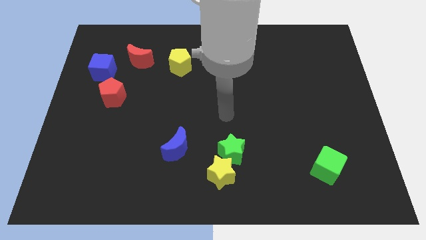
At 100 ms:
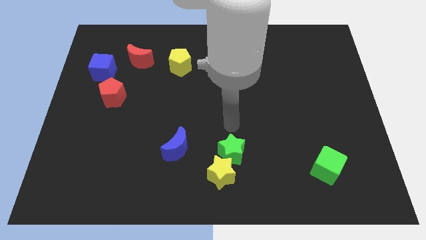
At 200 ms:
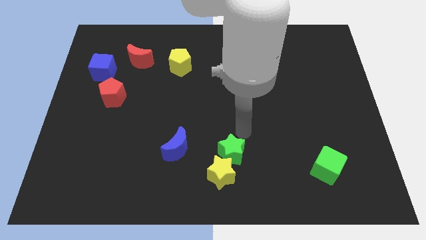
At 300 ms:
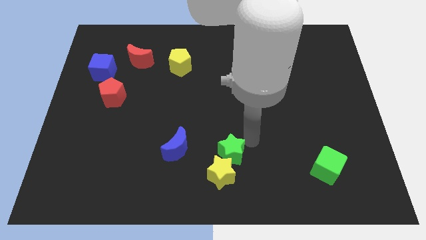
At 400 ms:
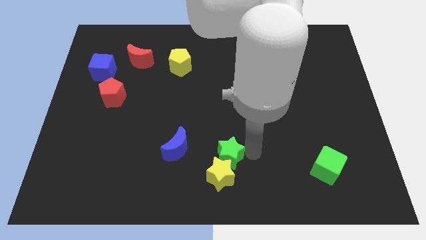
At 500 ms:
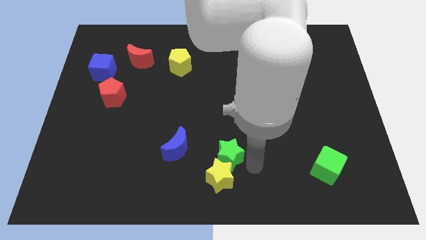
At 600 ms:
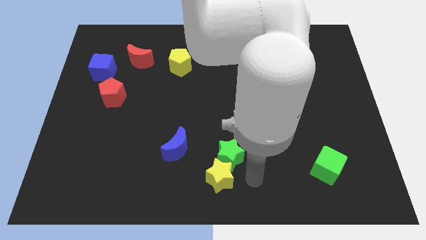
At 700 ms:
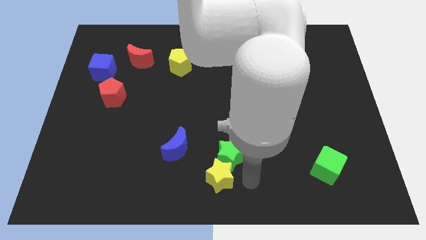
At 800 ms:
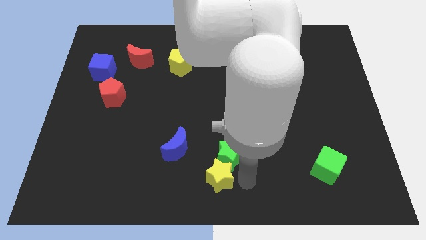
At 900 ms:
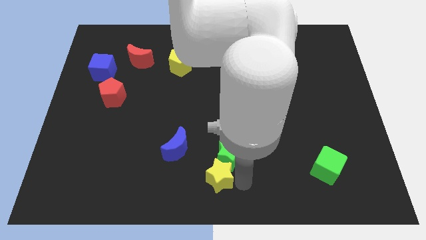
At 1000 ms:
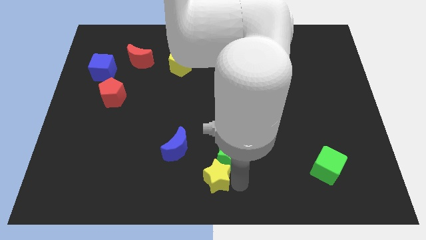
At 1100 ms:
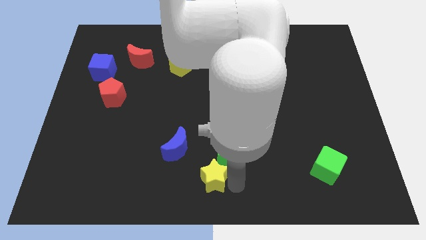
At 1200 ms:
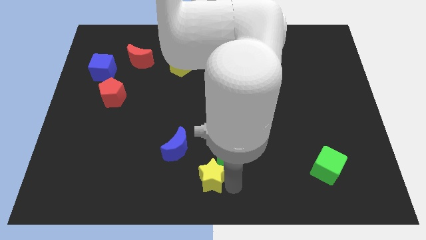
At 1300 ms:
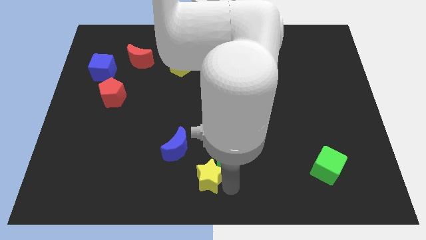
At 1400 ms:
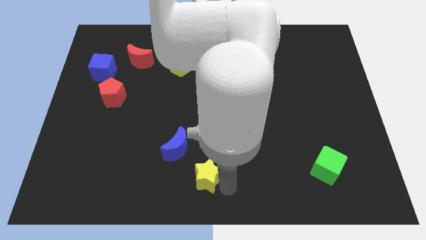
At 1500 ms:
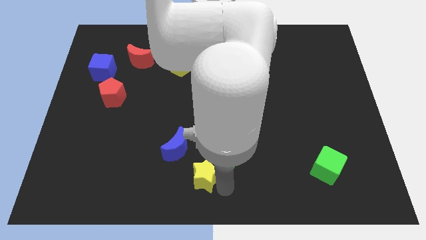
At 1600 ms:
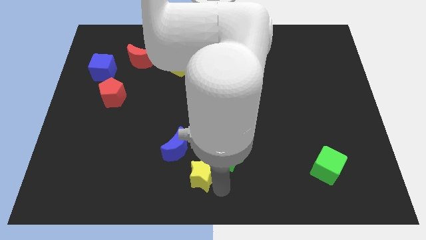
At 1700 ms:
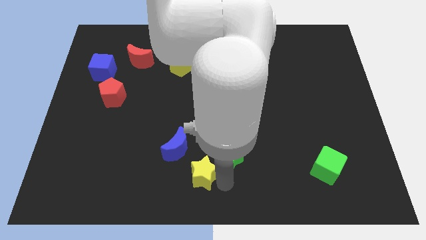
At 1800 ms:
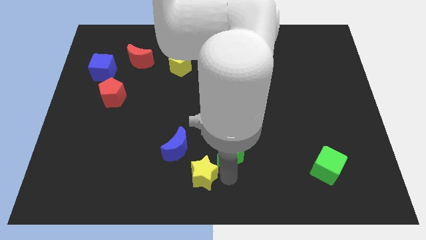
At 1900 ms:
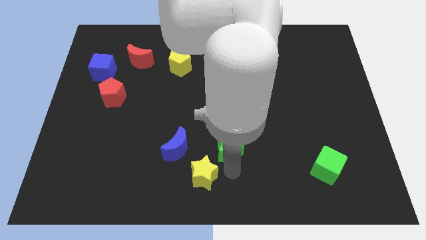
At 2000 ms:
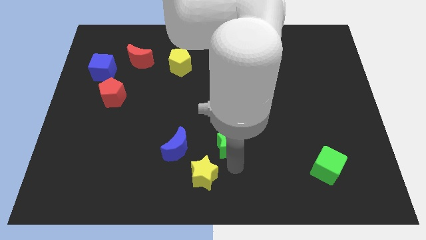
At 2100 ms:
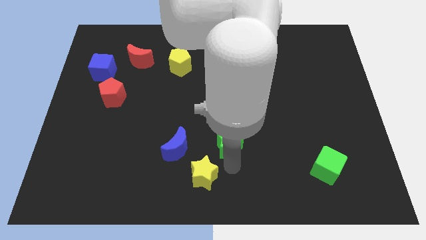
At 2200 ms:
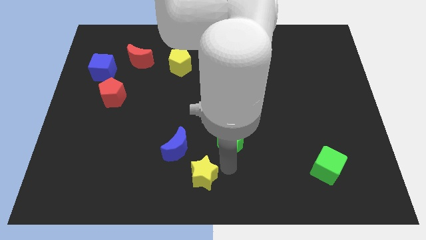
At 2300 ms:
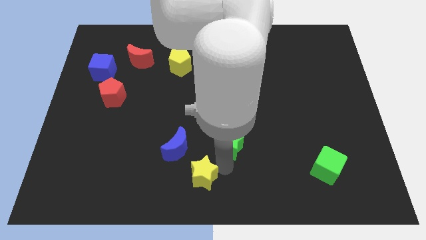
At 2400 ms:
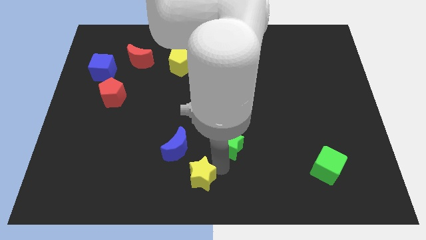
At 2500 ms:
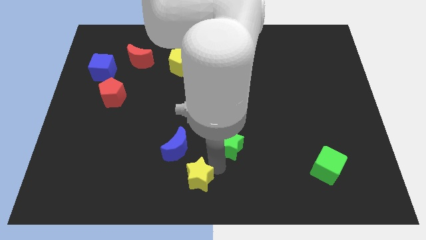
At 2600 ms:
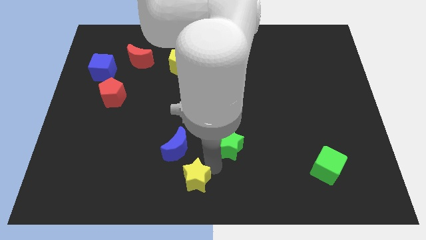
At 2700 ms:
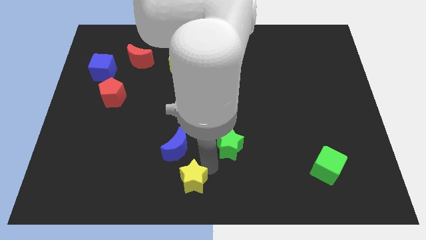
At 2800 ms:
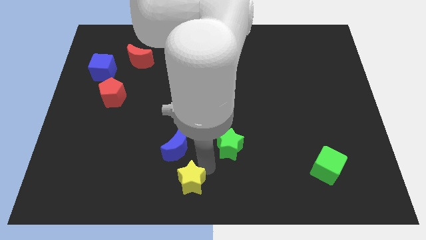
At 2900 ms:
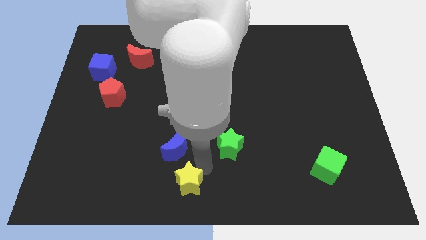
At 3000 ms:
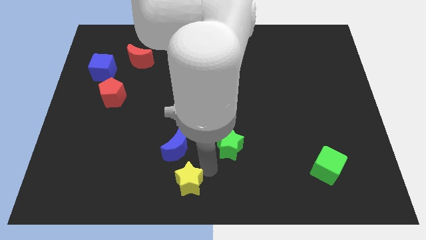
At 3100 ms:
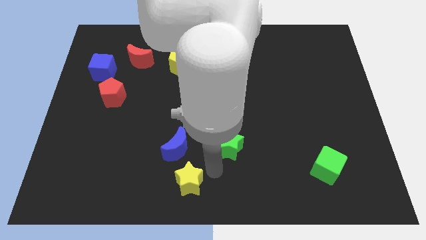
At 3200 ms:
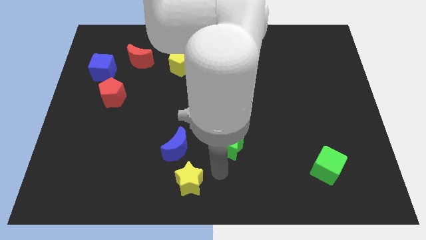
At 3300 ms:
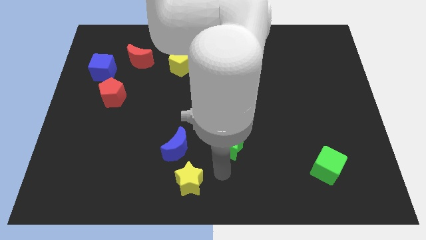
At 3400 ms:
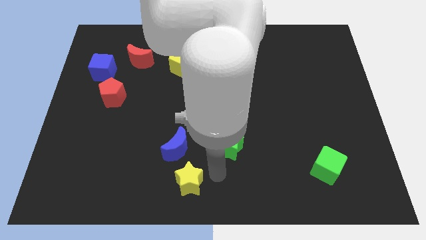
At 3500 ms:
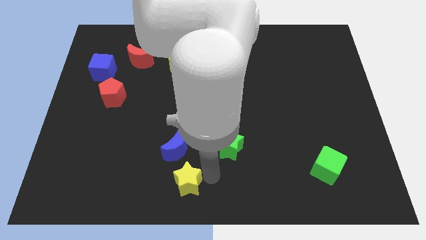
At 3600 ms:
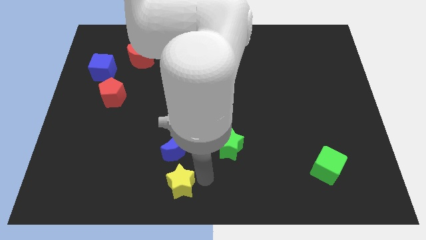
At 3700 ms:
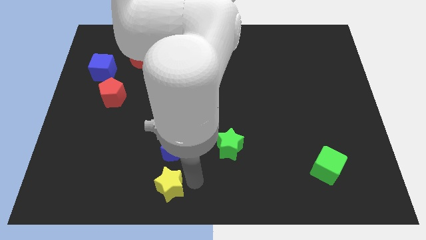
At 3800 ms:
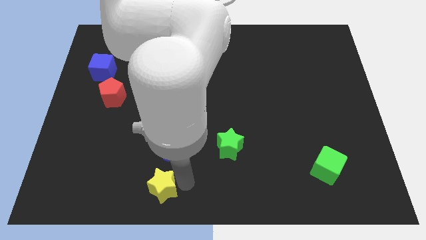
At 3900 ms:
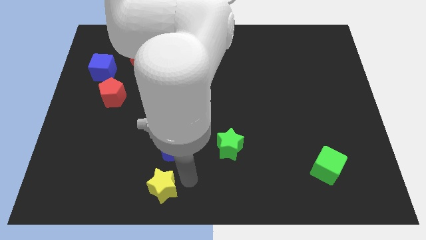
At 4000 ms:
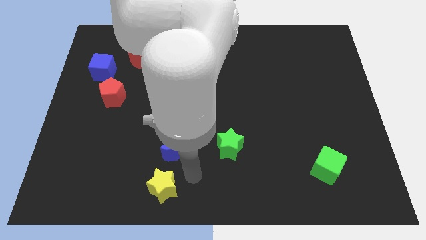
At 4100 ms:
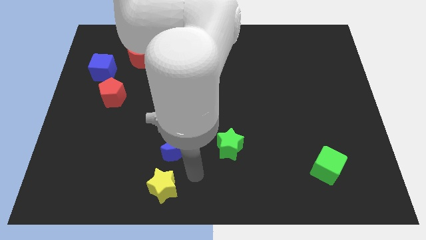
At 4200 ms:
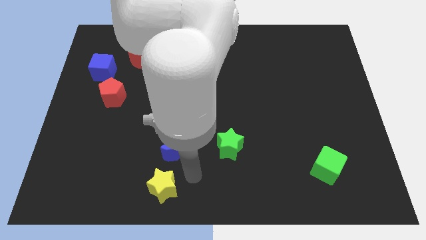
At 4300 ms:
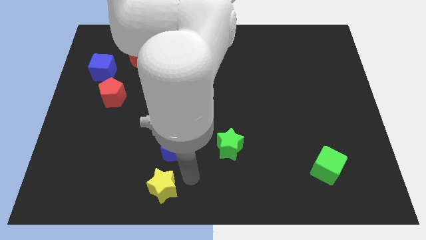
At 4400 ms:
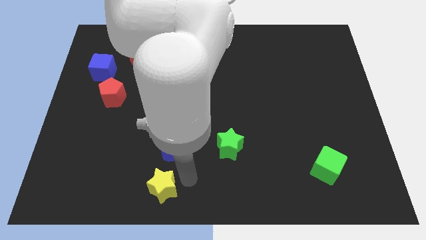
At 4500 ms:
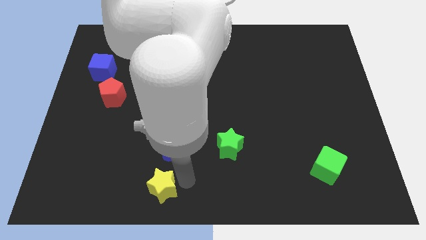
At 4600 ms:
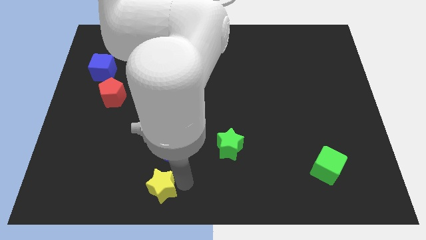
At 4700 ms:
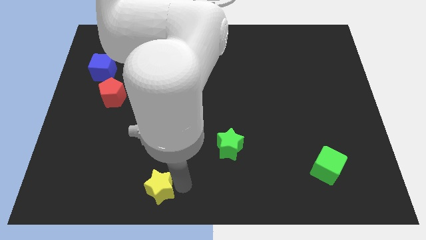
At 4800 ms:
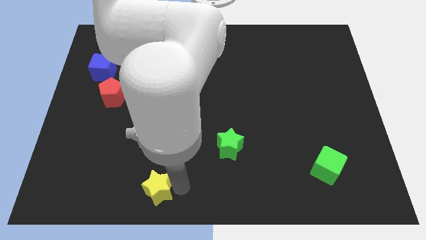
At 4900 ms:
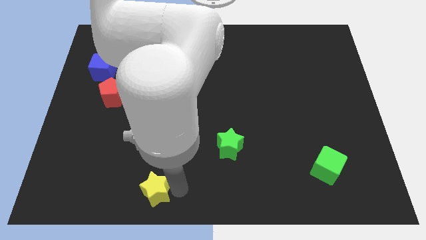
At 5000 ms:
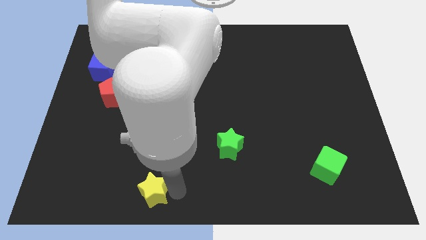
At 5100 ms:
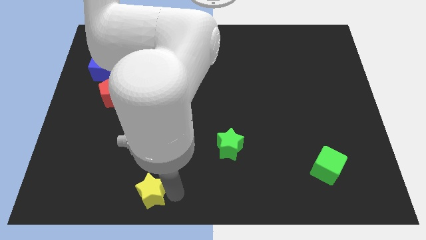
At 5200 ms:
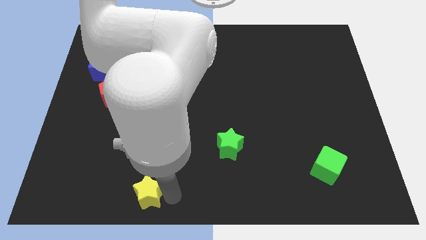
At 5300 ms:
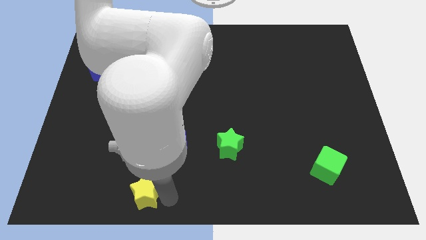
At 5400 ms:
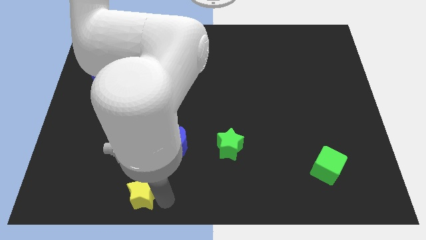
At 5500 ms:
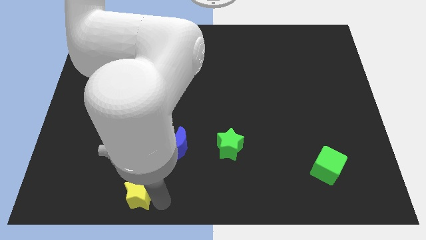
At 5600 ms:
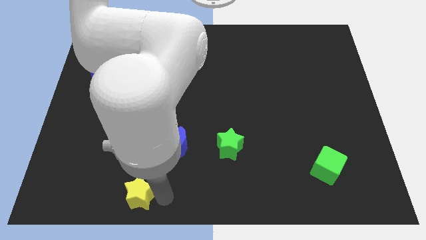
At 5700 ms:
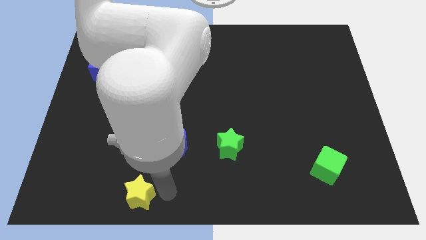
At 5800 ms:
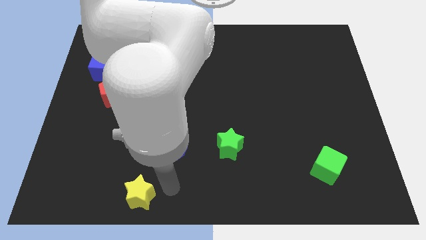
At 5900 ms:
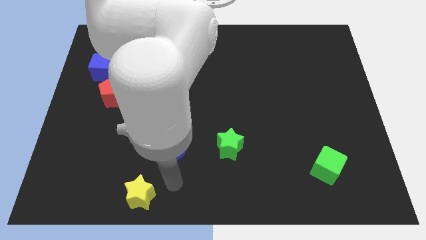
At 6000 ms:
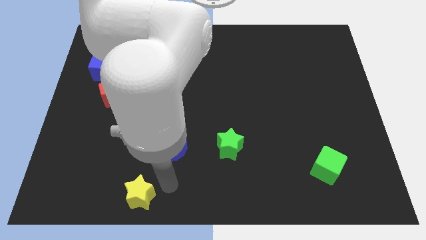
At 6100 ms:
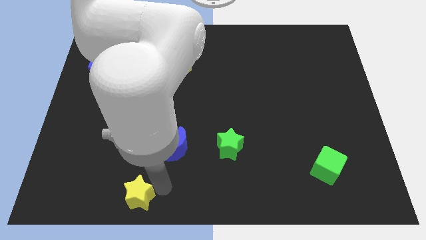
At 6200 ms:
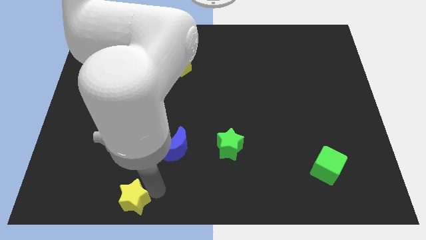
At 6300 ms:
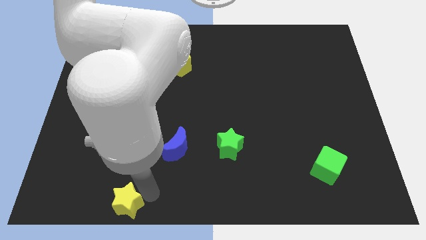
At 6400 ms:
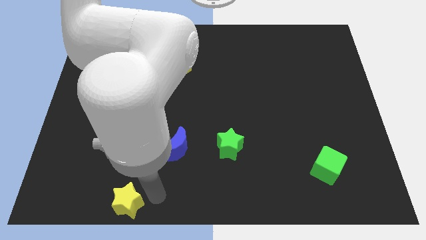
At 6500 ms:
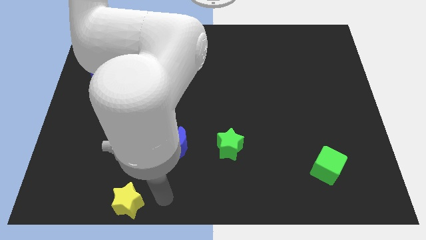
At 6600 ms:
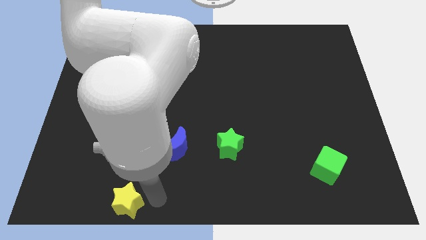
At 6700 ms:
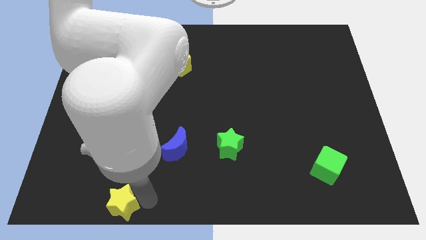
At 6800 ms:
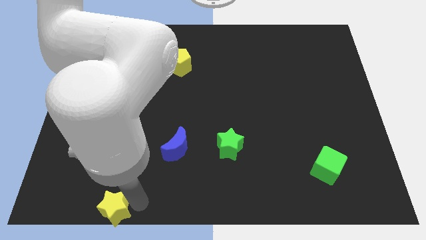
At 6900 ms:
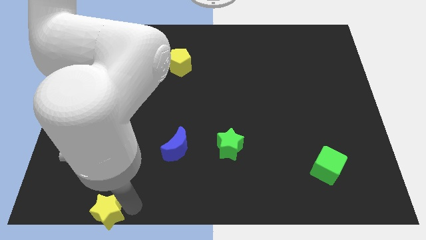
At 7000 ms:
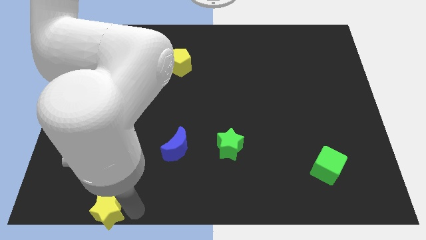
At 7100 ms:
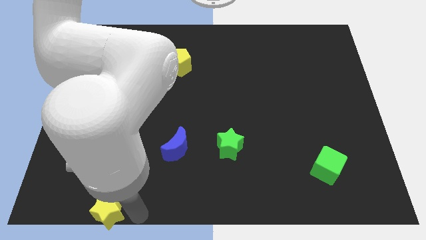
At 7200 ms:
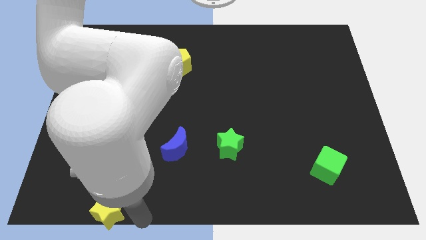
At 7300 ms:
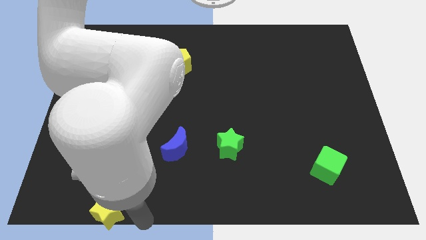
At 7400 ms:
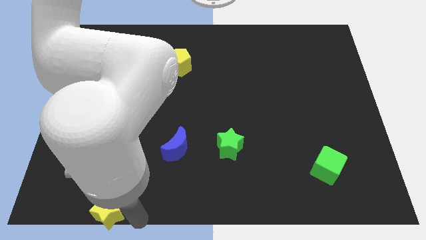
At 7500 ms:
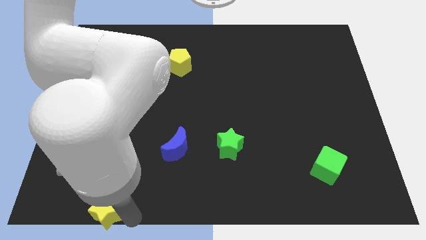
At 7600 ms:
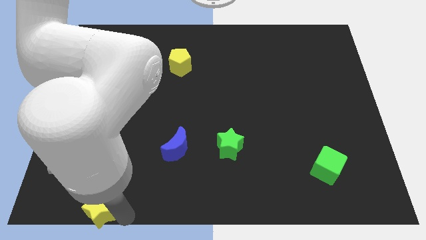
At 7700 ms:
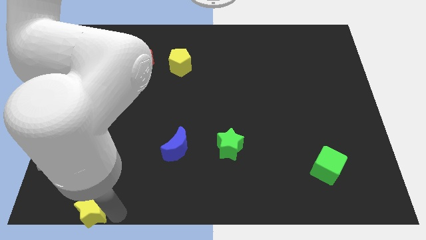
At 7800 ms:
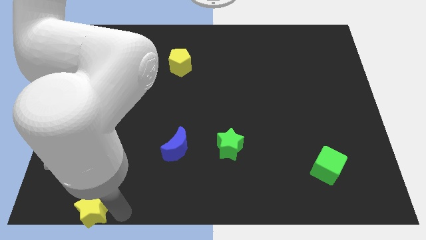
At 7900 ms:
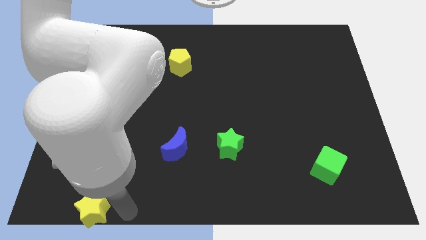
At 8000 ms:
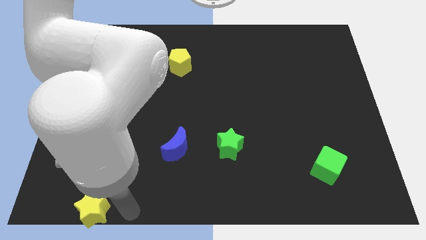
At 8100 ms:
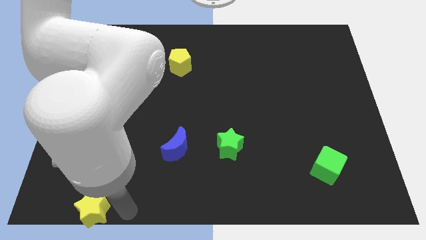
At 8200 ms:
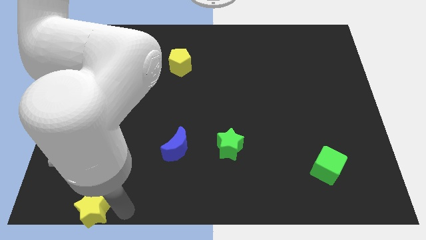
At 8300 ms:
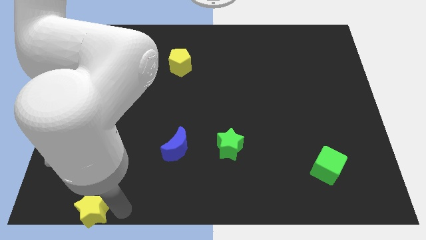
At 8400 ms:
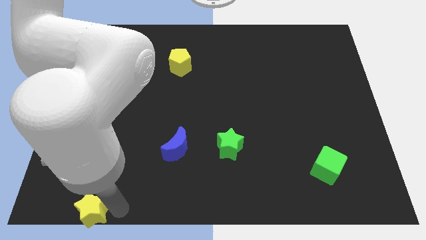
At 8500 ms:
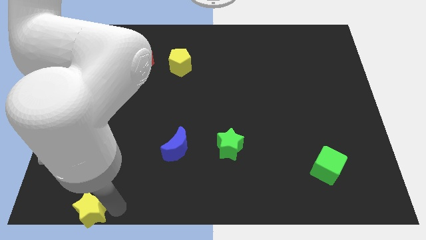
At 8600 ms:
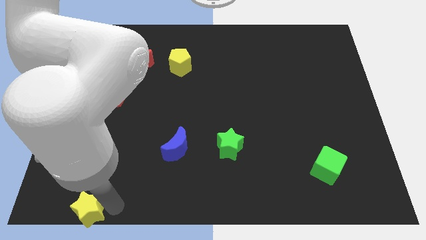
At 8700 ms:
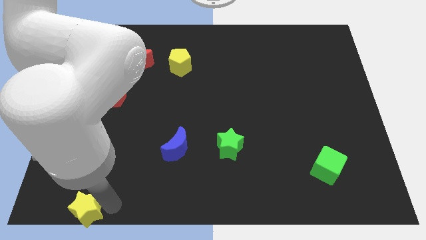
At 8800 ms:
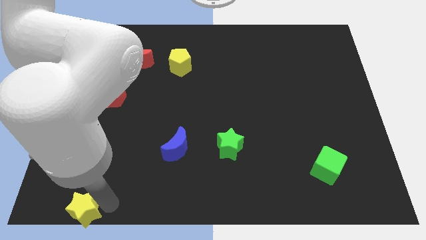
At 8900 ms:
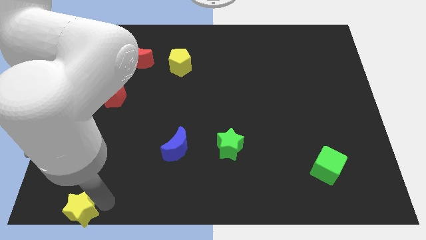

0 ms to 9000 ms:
slide the yellow star to the bottom left corner
